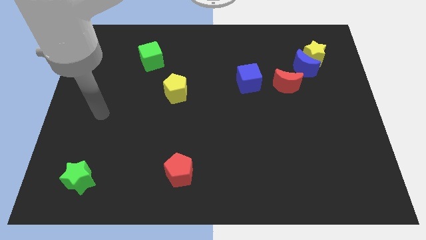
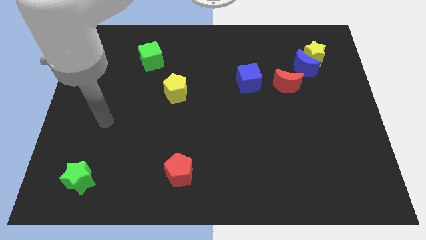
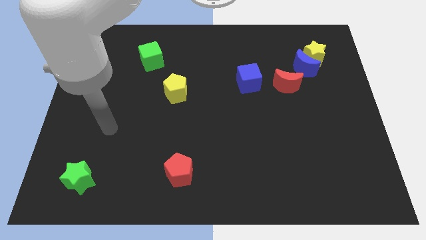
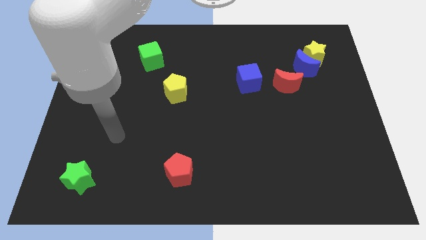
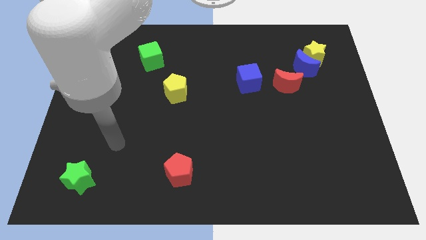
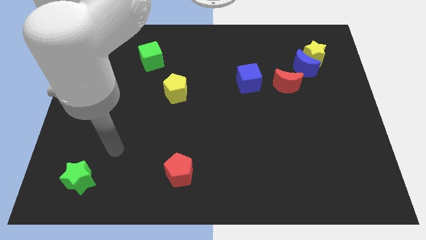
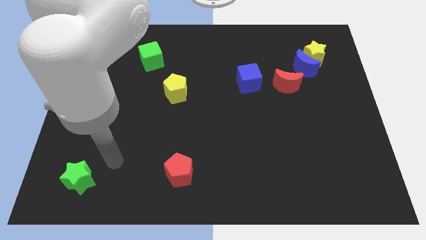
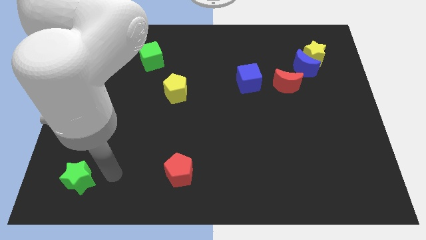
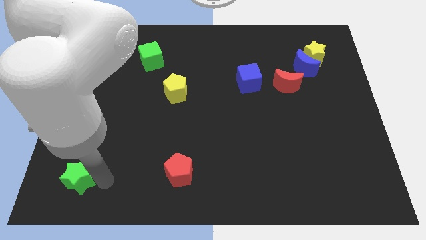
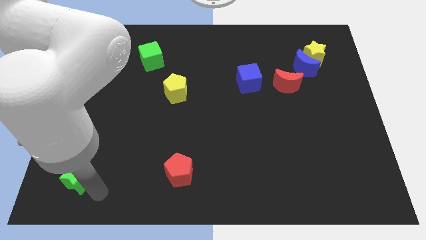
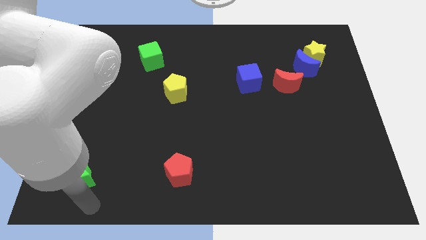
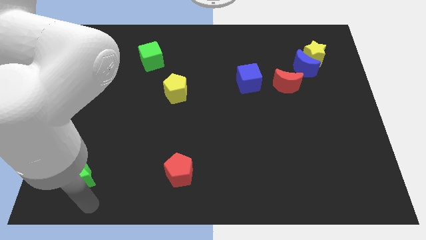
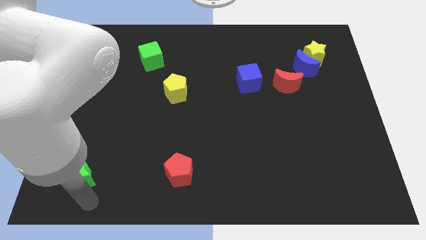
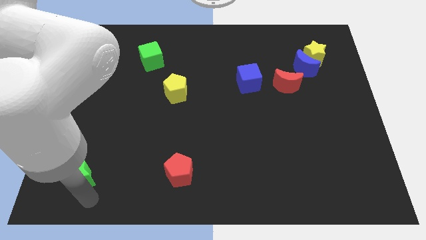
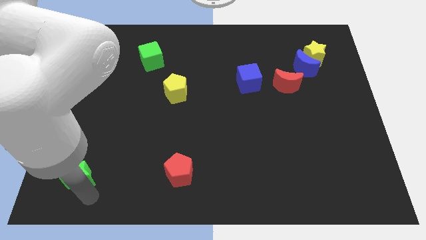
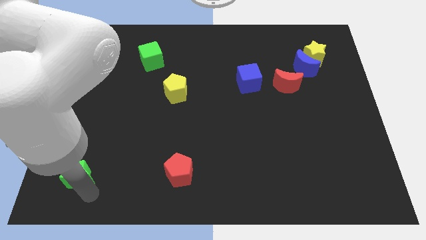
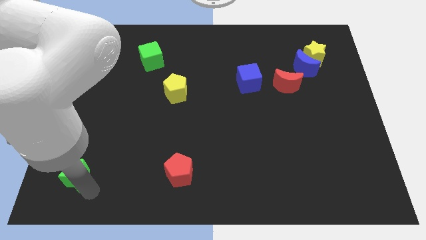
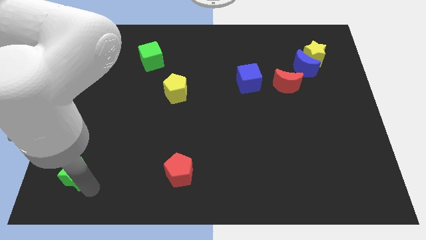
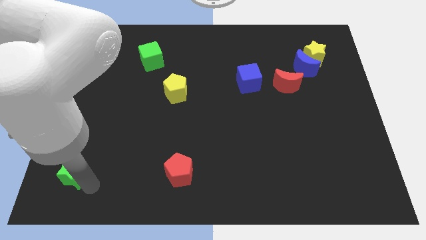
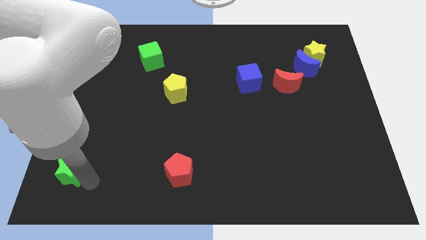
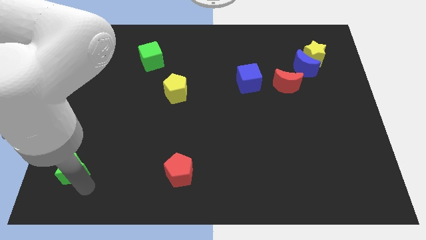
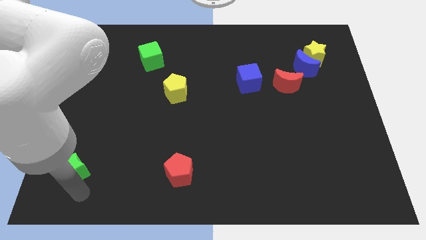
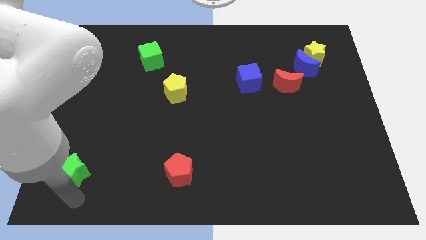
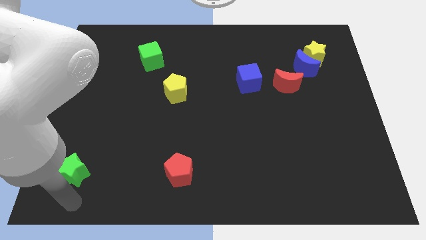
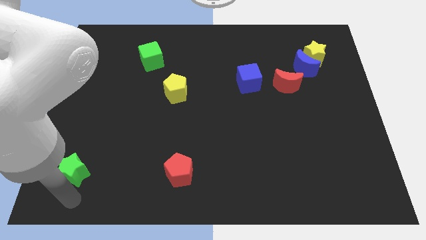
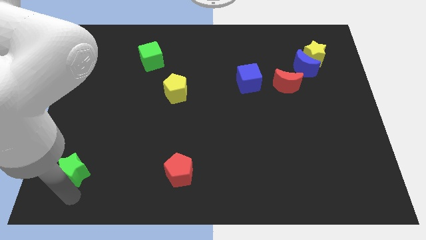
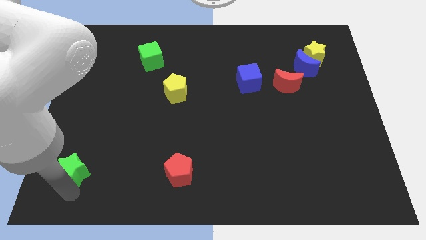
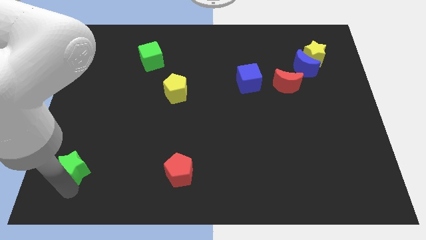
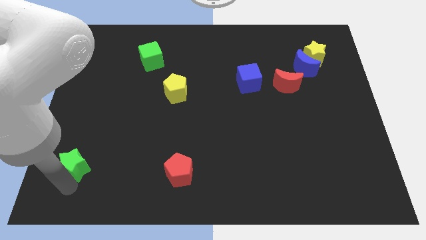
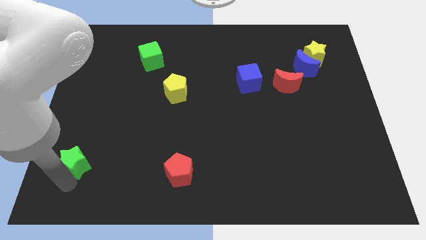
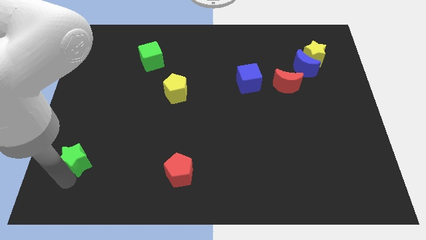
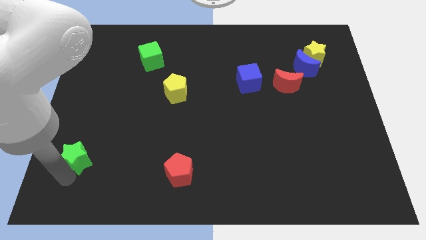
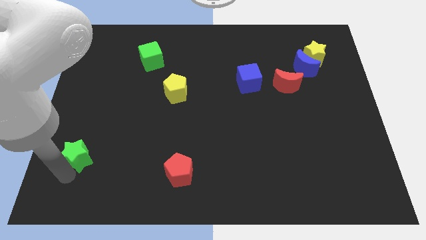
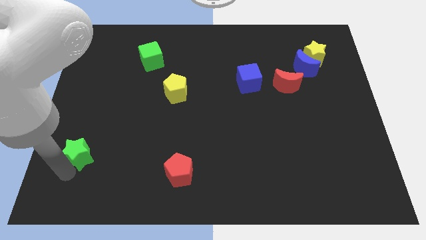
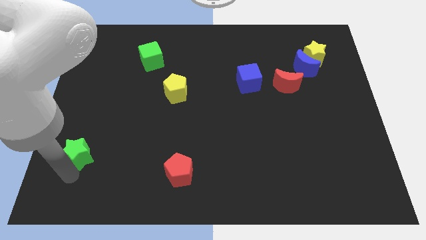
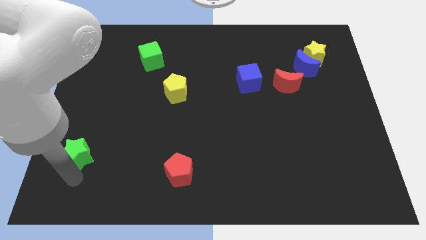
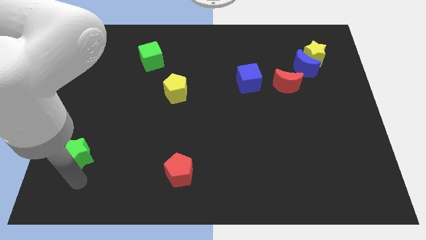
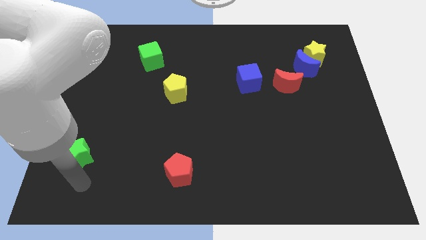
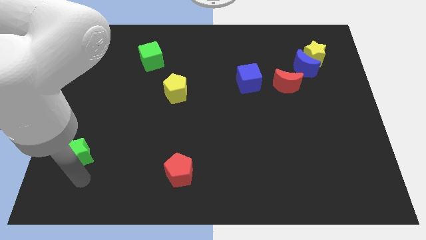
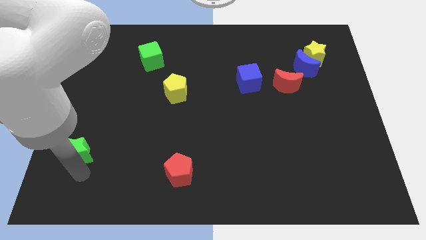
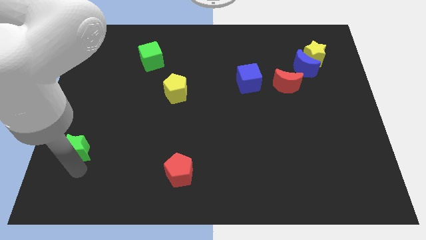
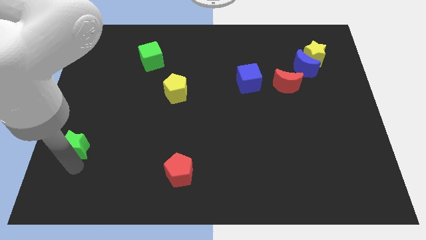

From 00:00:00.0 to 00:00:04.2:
push the green star slightly up

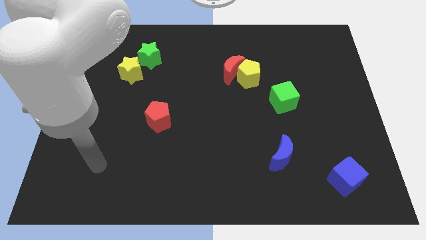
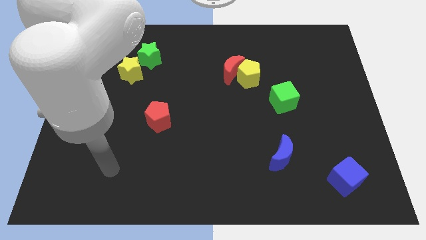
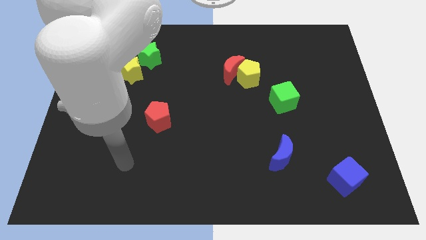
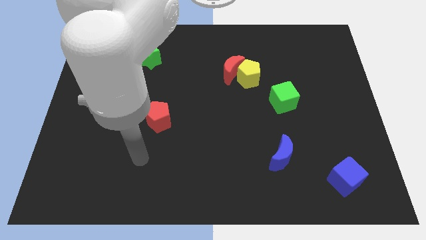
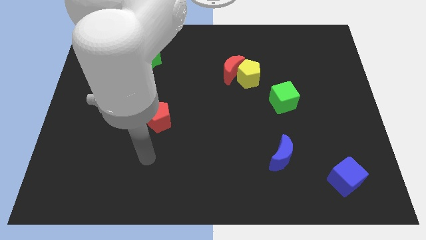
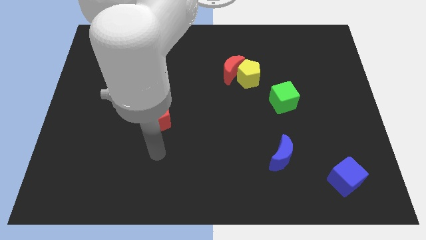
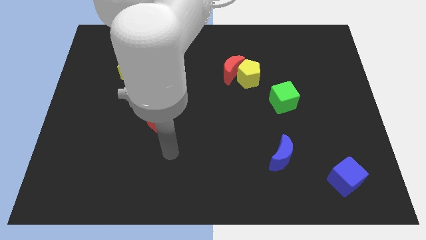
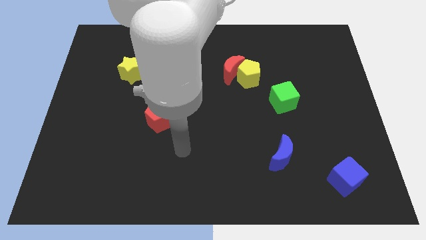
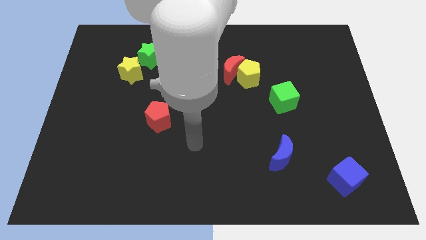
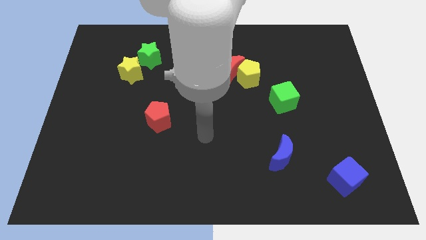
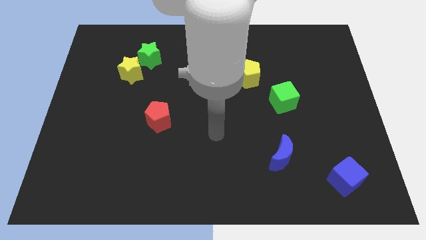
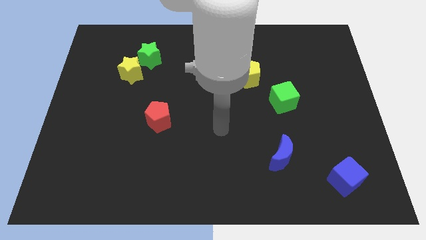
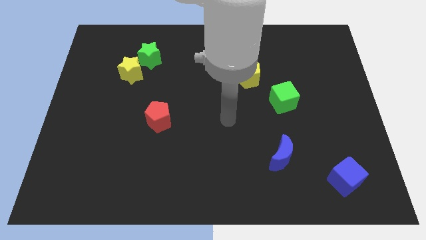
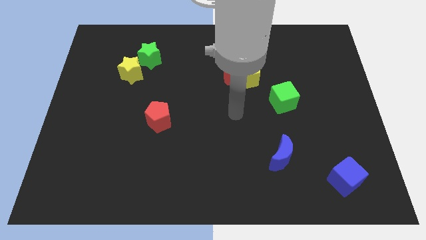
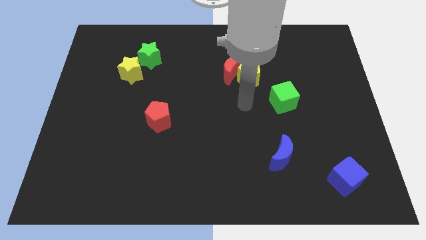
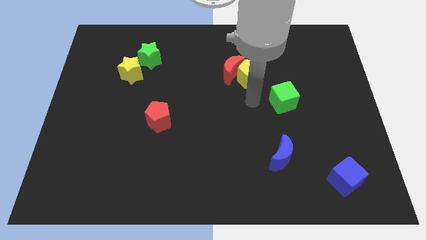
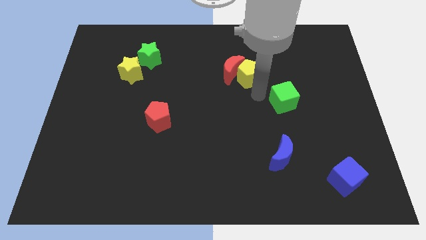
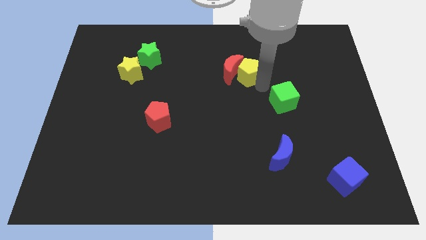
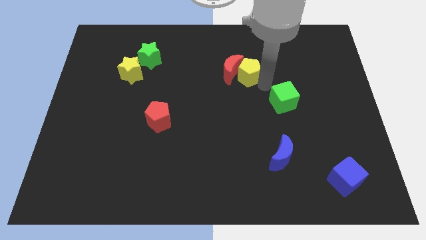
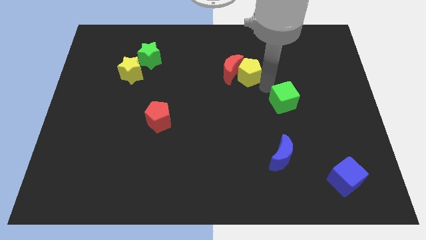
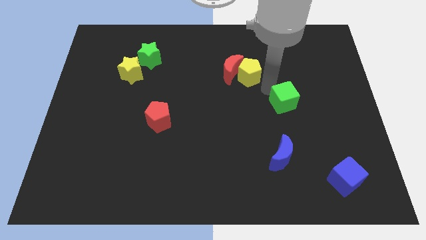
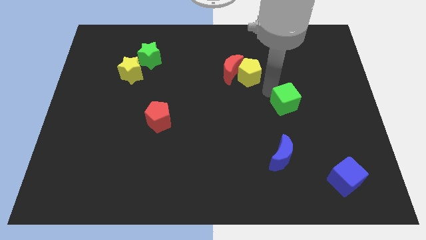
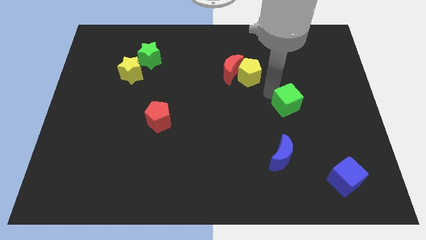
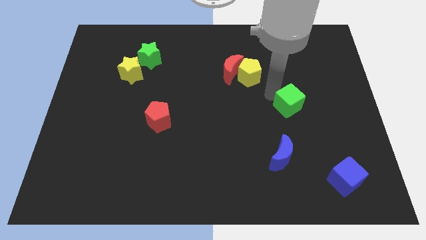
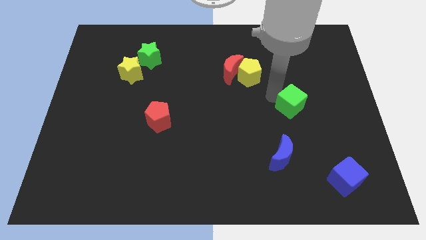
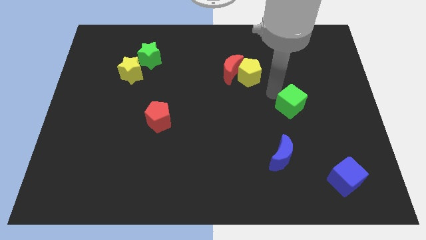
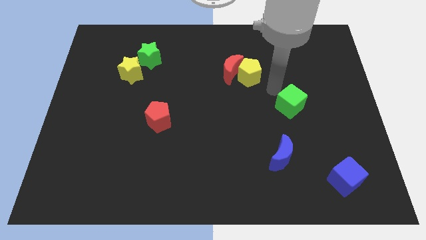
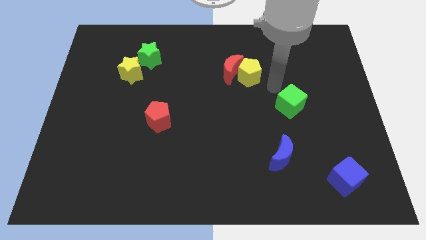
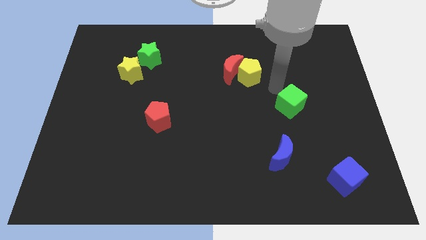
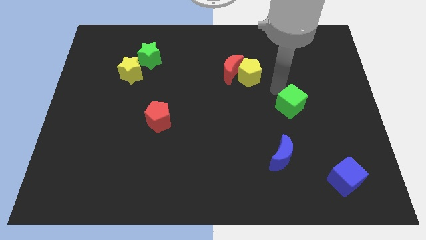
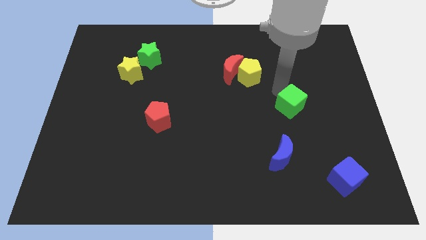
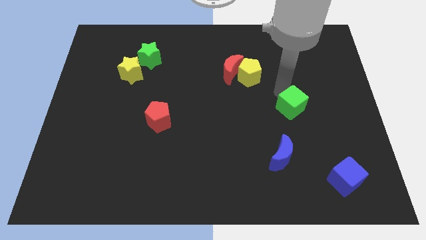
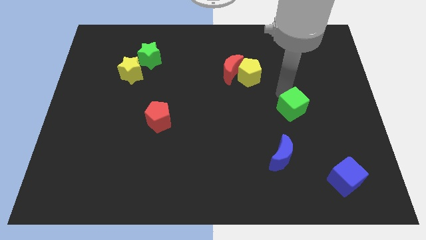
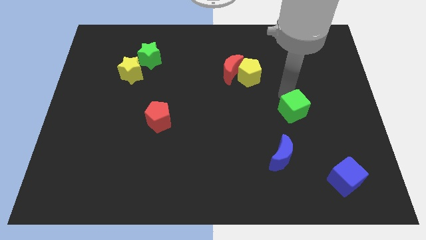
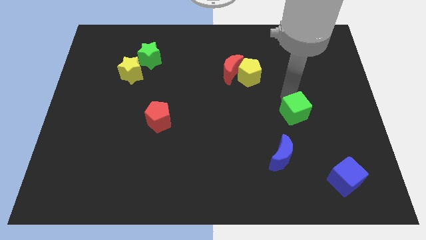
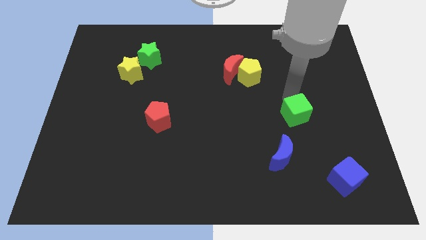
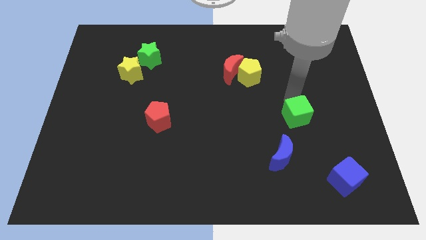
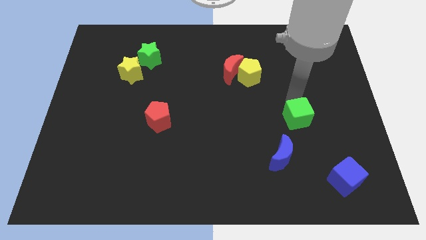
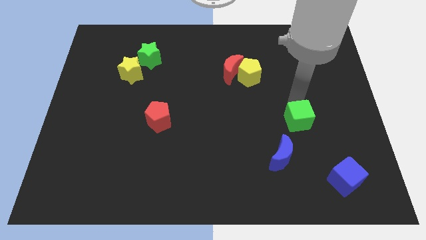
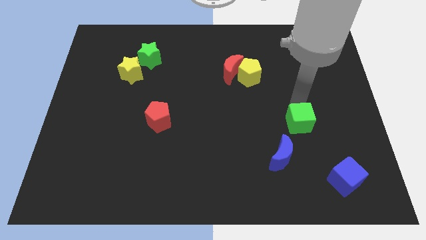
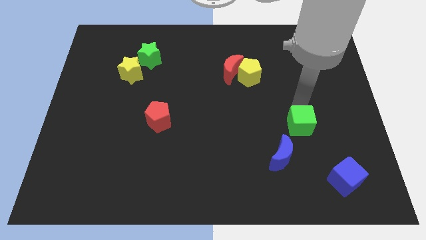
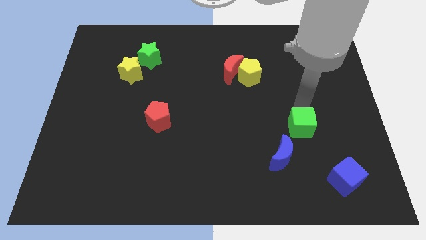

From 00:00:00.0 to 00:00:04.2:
move the green cube down a little
